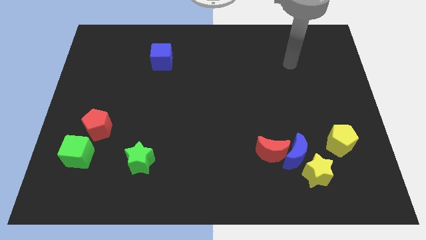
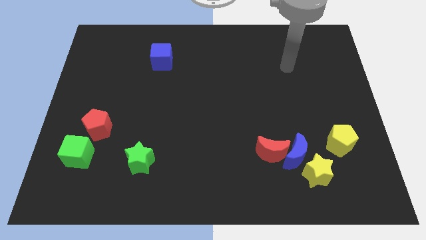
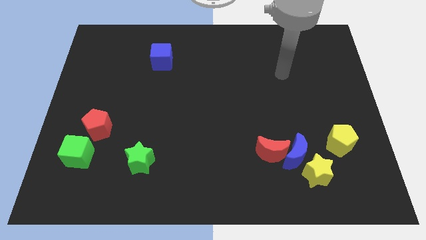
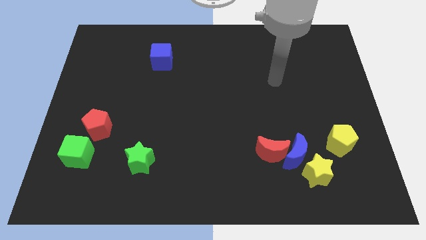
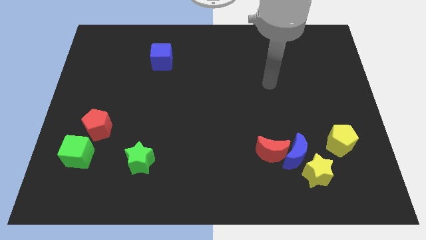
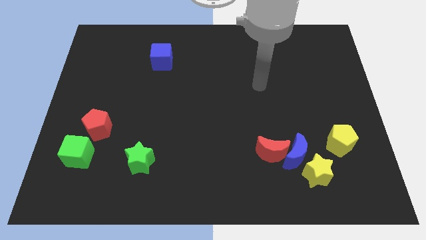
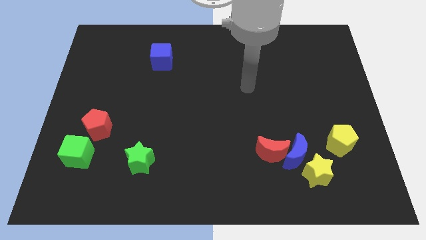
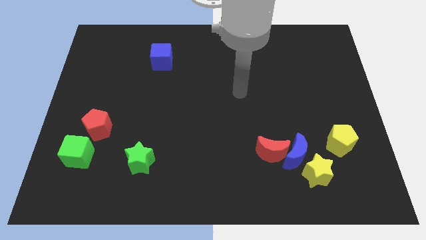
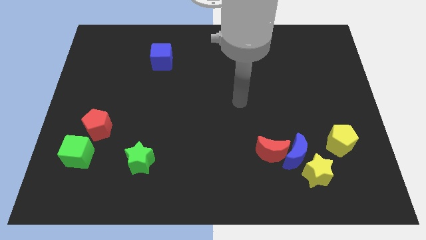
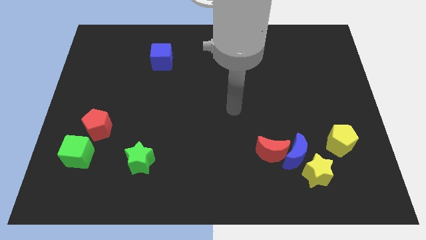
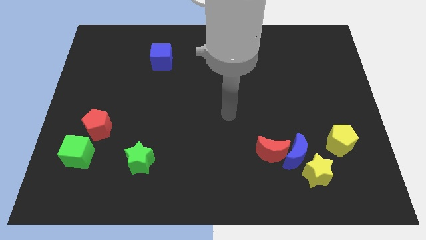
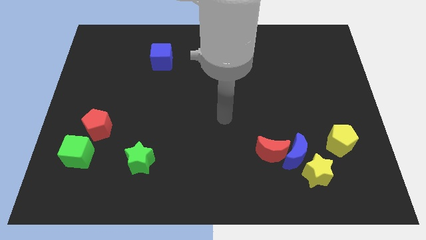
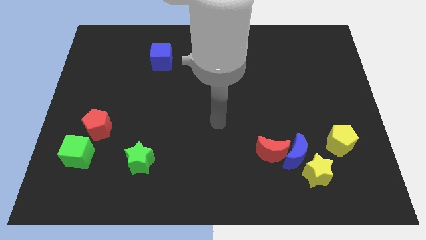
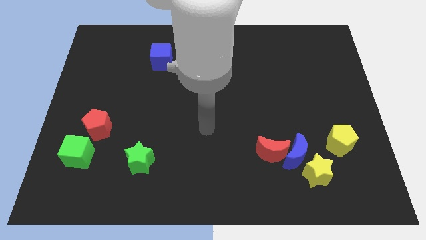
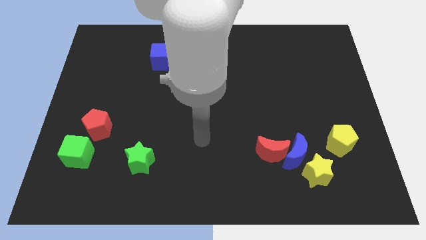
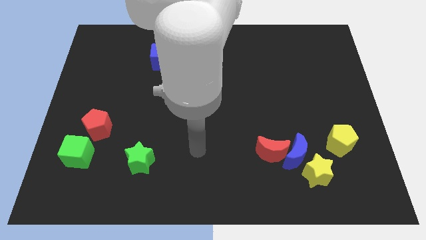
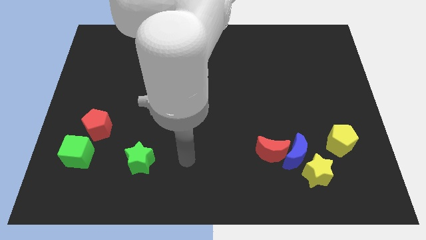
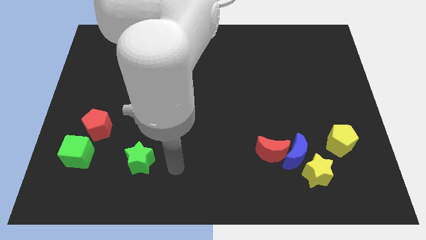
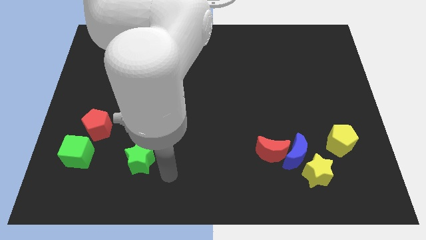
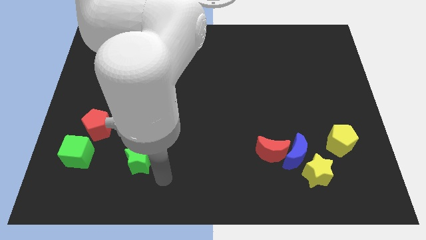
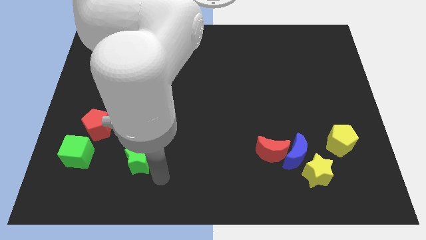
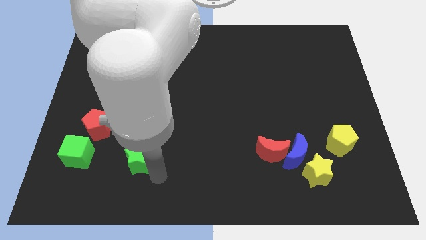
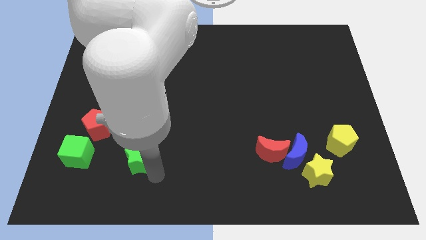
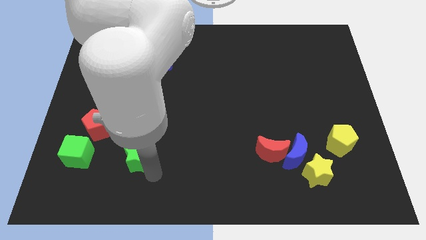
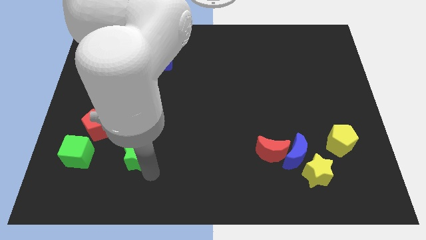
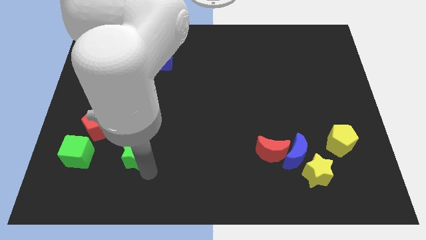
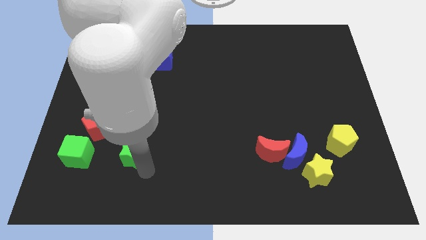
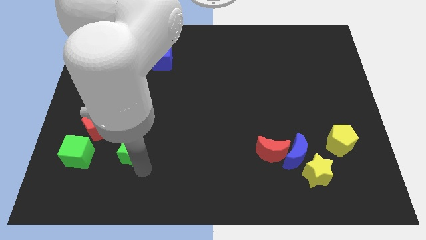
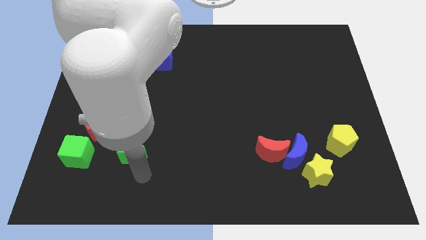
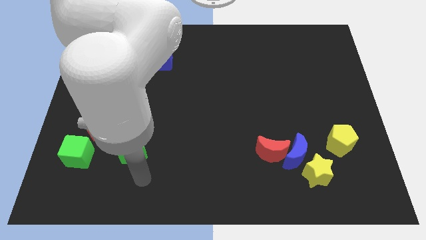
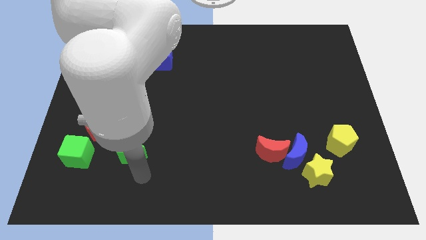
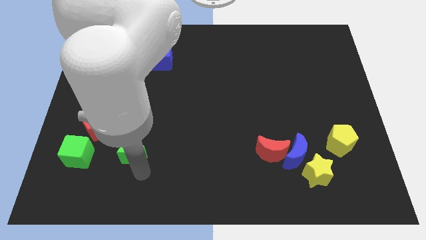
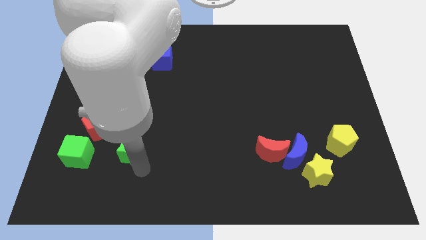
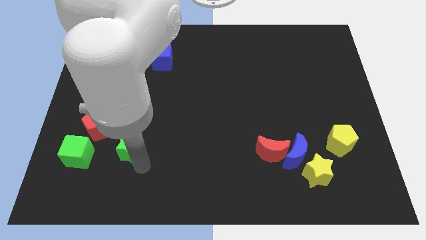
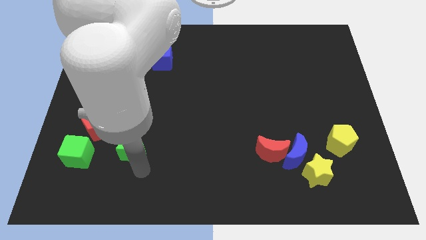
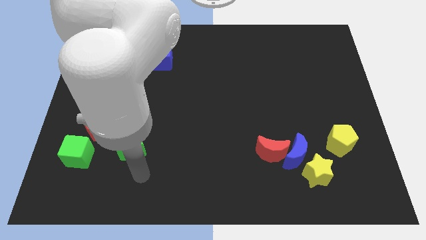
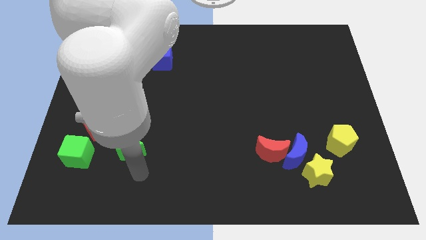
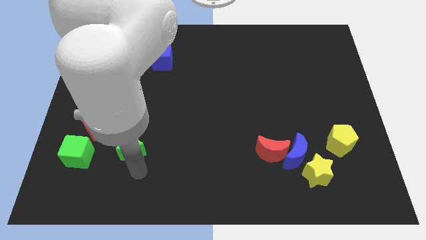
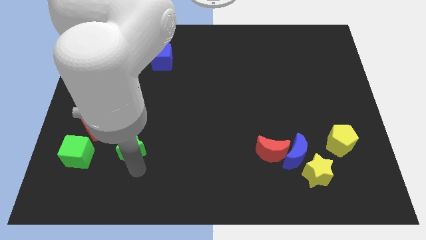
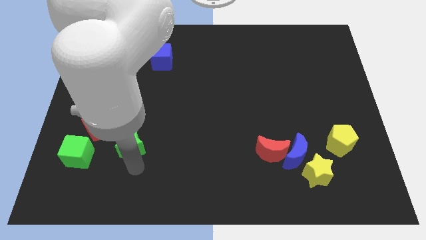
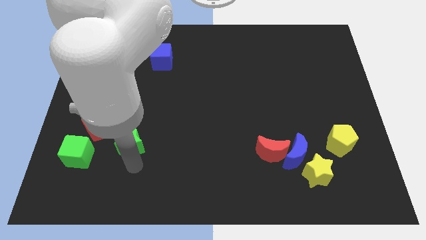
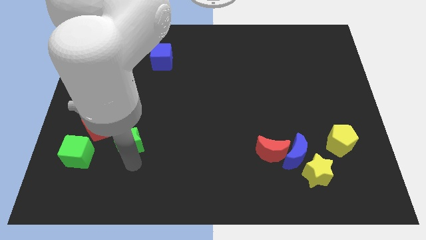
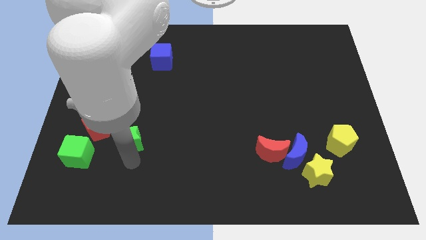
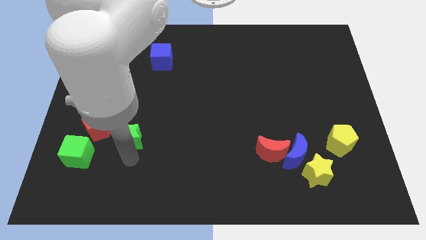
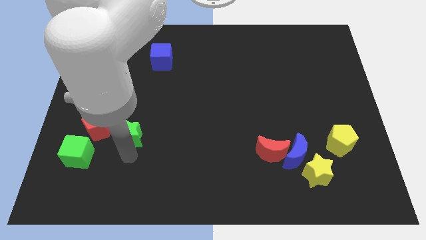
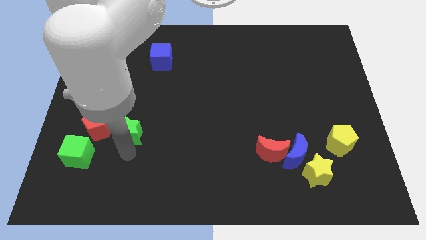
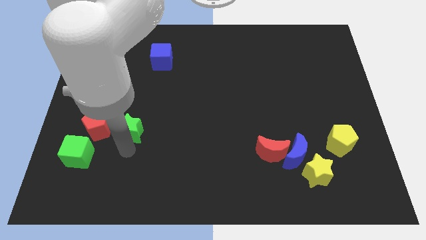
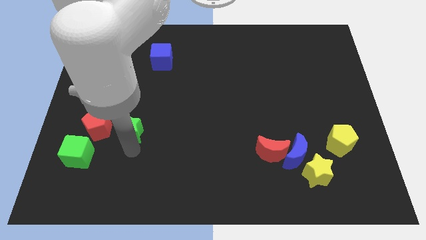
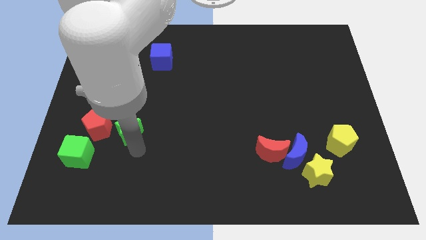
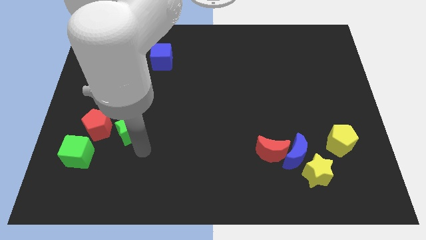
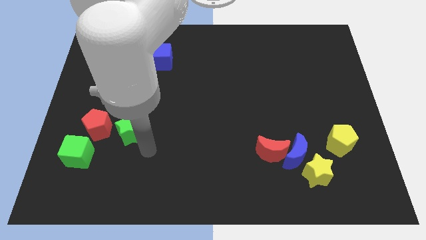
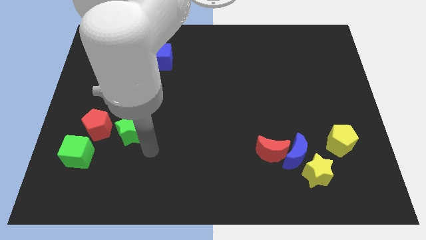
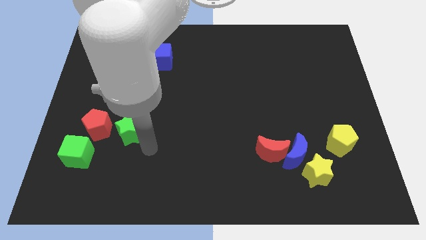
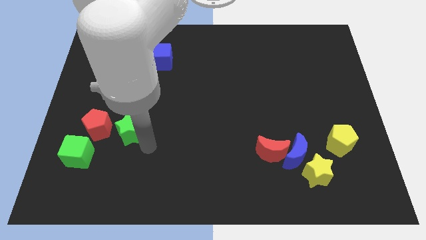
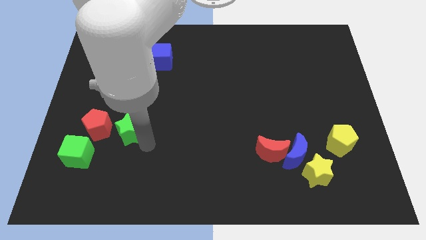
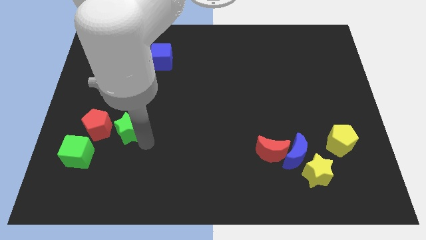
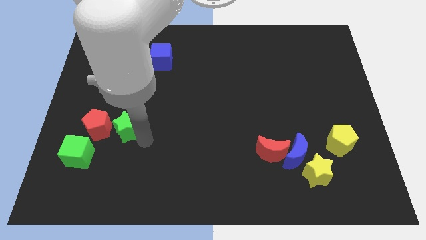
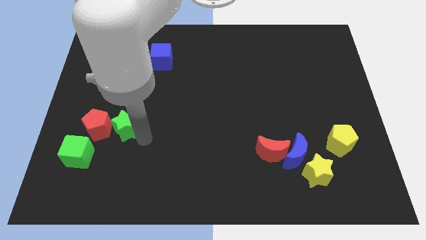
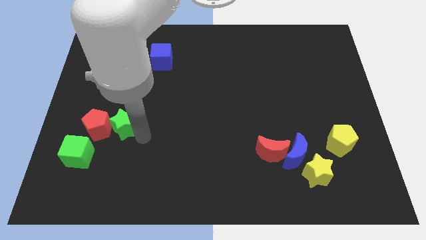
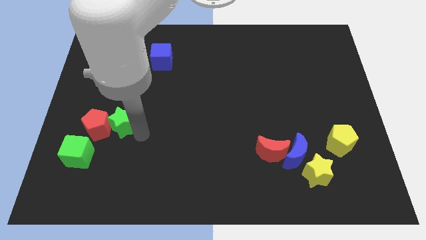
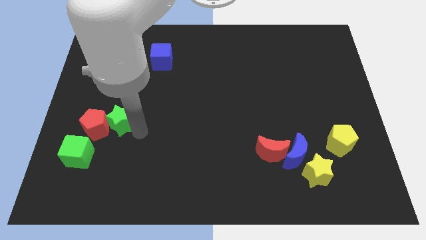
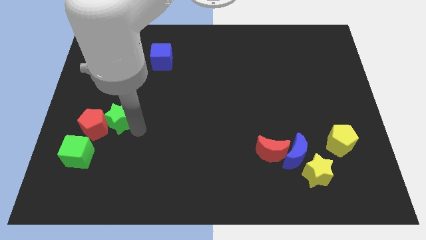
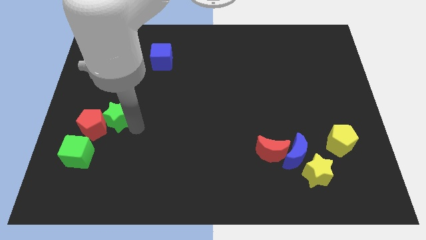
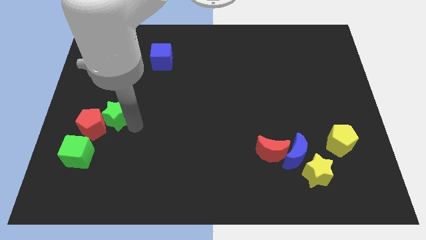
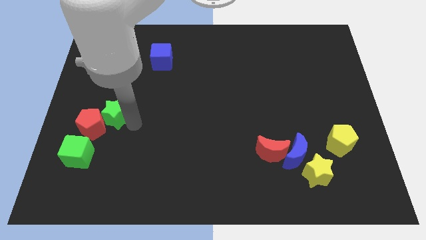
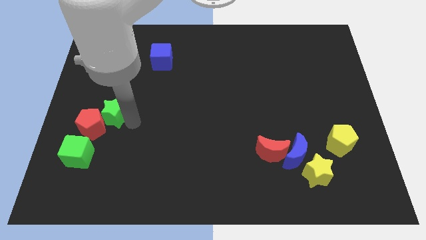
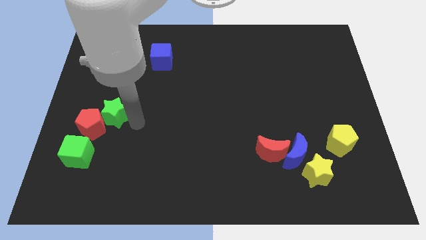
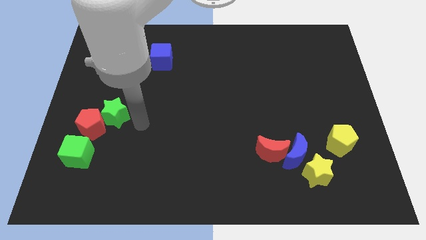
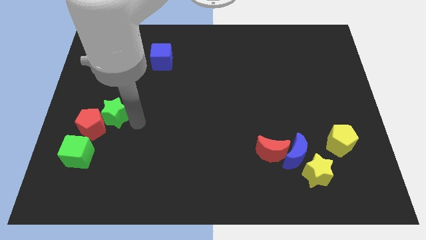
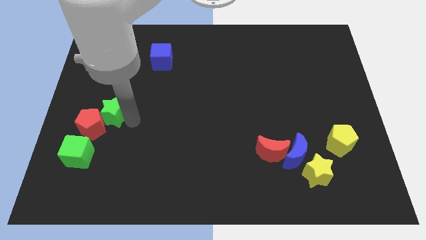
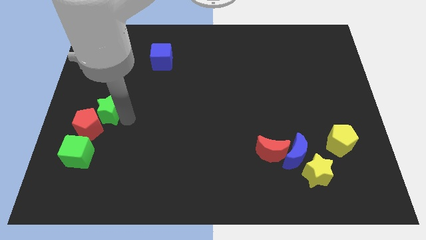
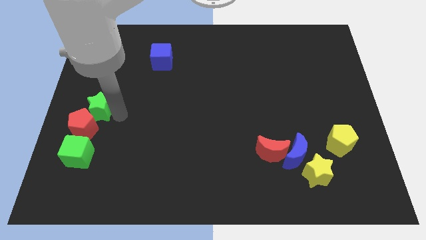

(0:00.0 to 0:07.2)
move the green star to the center left
